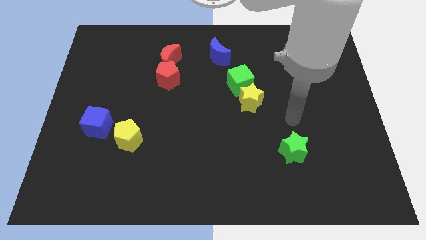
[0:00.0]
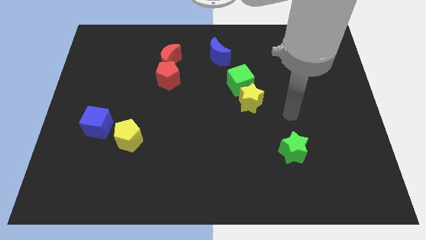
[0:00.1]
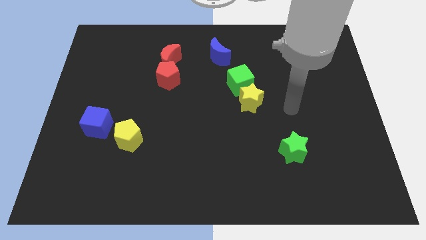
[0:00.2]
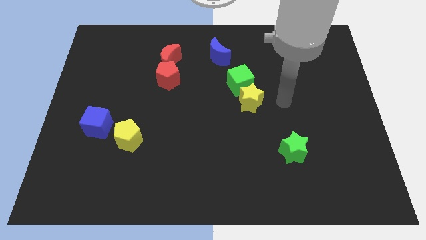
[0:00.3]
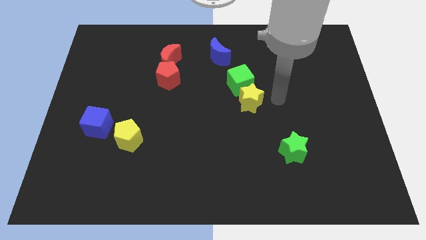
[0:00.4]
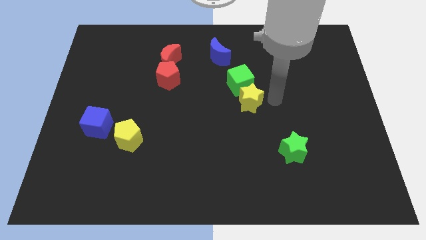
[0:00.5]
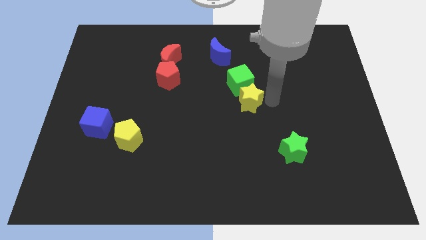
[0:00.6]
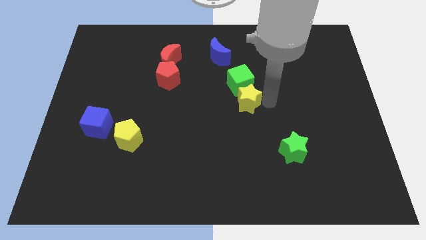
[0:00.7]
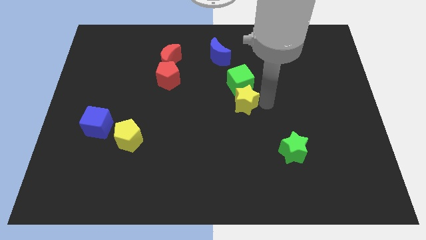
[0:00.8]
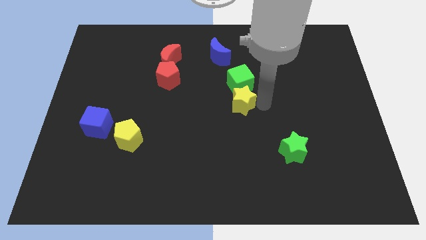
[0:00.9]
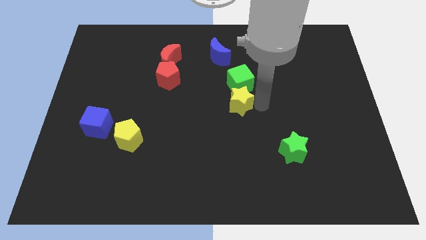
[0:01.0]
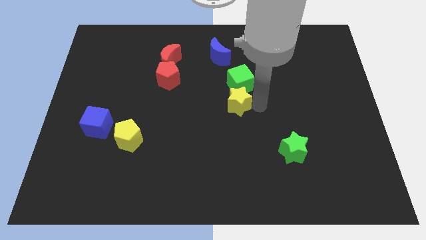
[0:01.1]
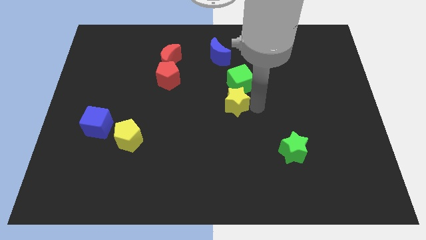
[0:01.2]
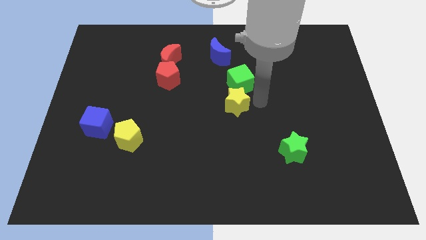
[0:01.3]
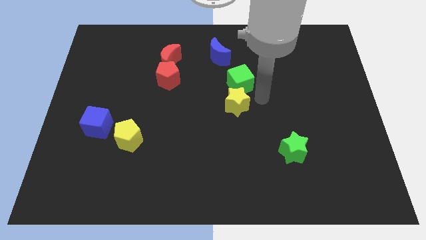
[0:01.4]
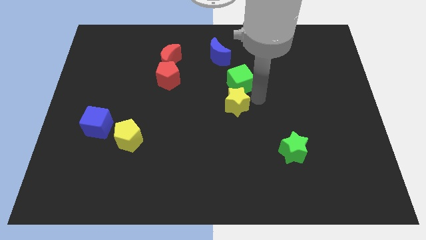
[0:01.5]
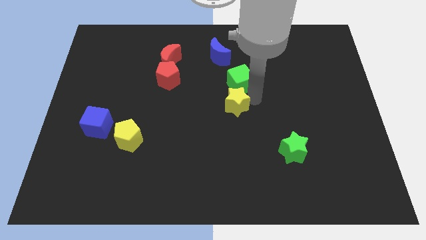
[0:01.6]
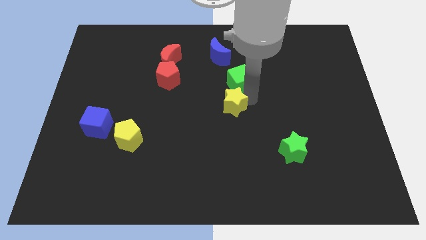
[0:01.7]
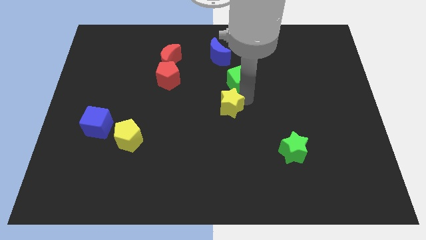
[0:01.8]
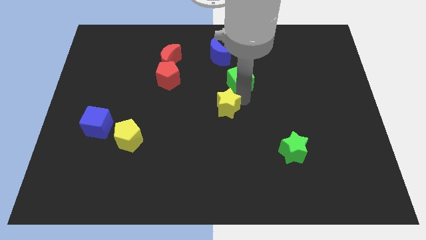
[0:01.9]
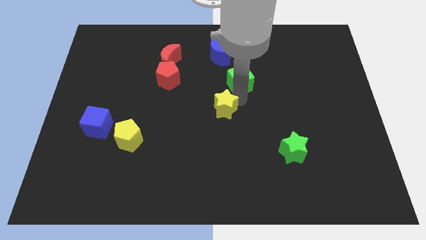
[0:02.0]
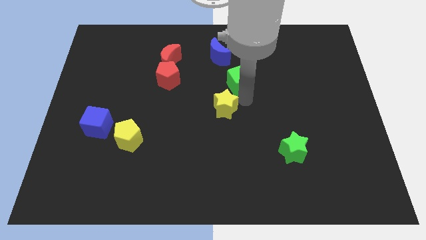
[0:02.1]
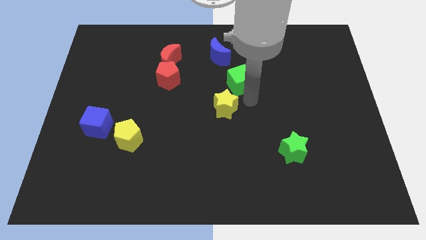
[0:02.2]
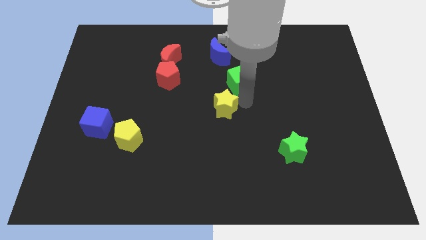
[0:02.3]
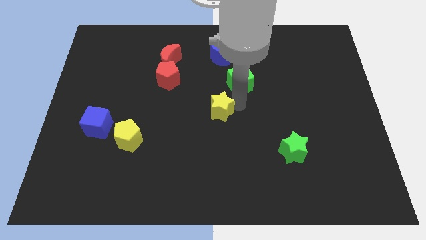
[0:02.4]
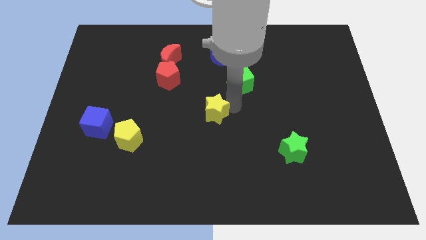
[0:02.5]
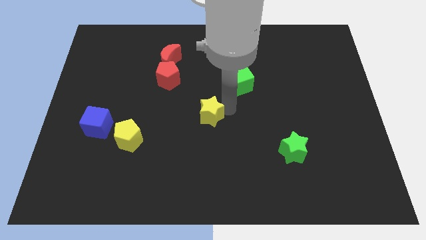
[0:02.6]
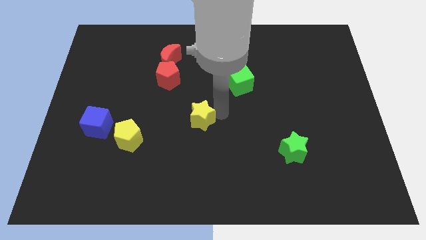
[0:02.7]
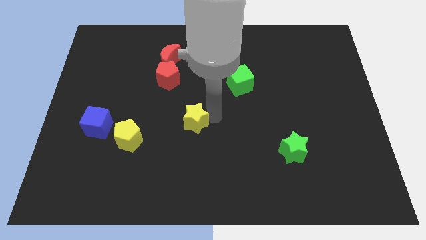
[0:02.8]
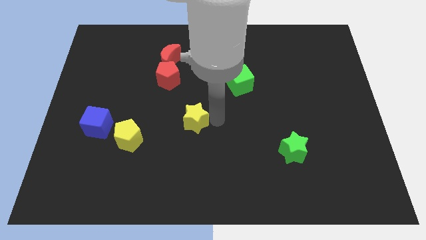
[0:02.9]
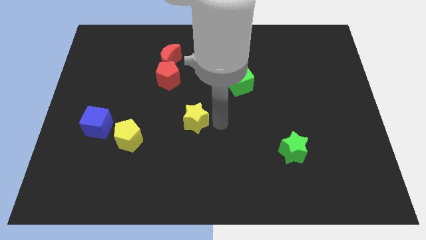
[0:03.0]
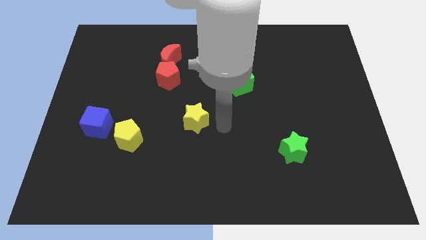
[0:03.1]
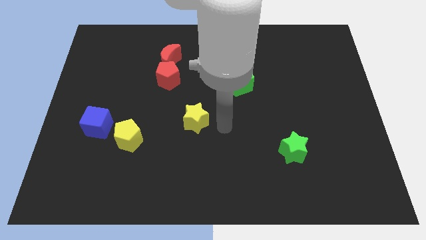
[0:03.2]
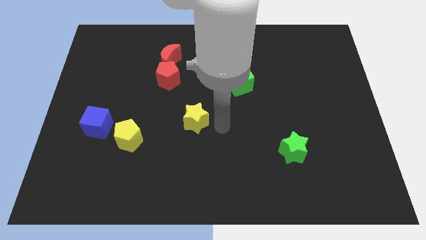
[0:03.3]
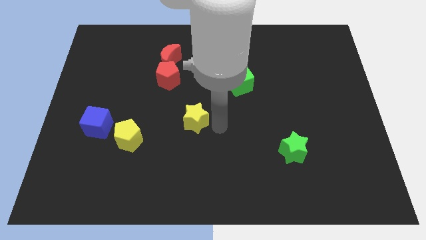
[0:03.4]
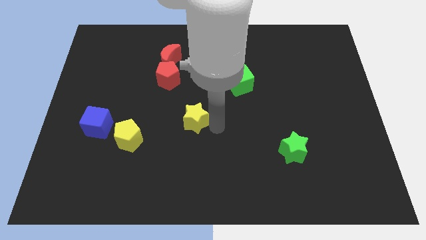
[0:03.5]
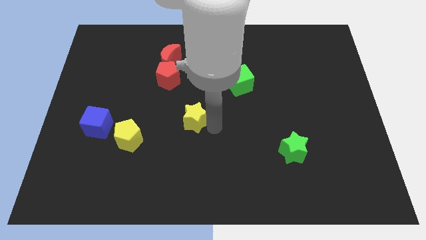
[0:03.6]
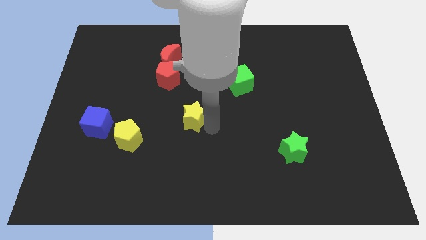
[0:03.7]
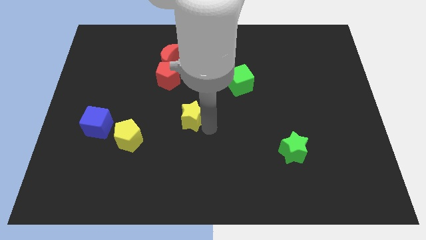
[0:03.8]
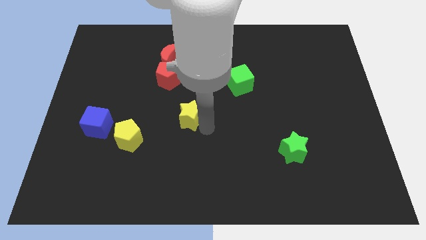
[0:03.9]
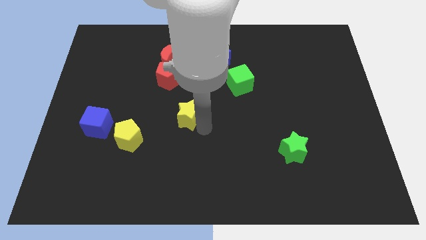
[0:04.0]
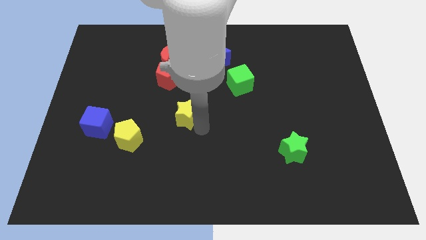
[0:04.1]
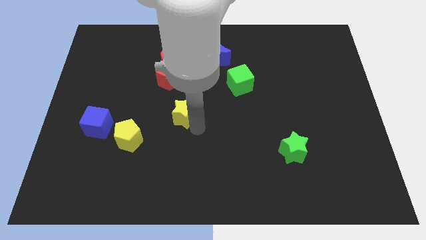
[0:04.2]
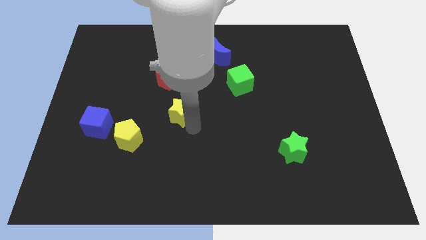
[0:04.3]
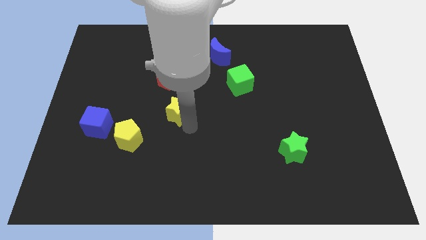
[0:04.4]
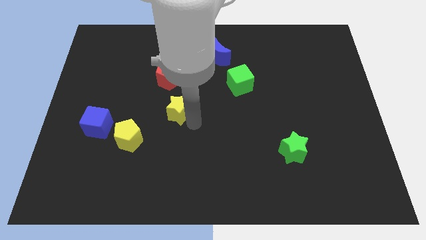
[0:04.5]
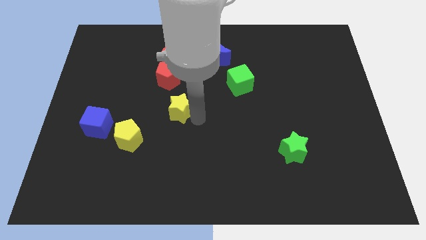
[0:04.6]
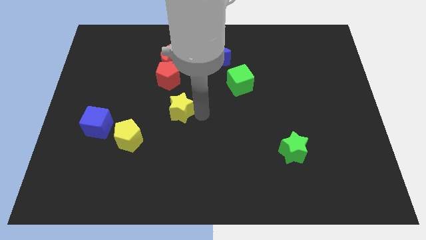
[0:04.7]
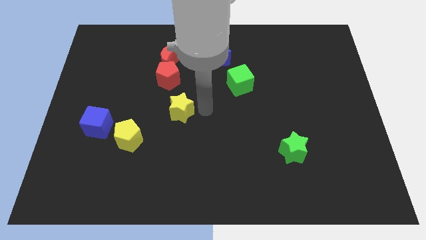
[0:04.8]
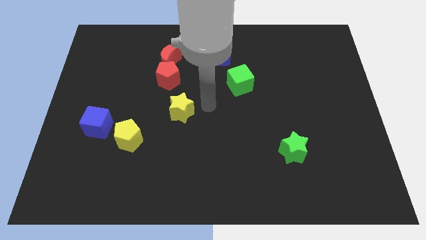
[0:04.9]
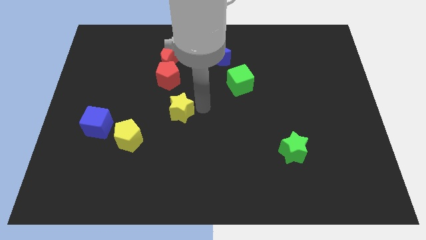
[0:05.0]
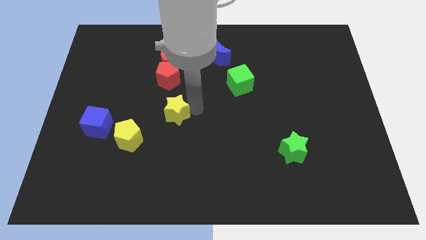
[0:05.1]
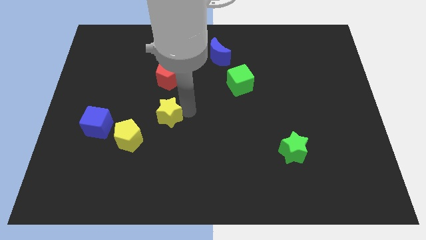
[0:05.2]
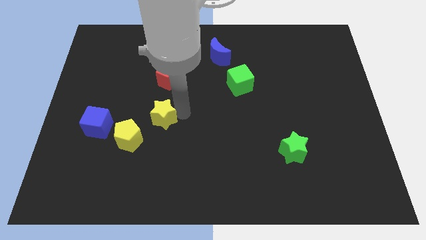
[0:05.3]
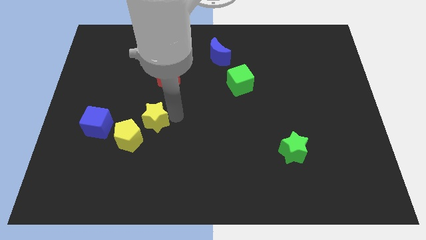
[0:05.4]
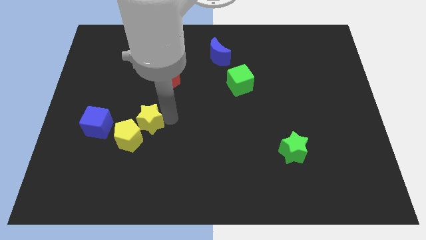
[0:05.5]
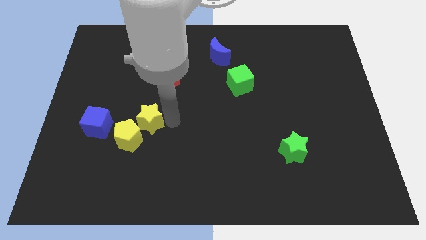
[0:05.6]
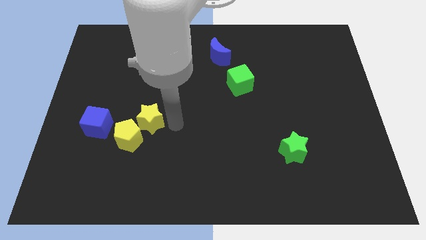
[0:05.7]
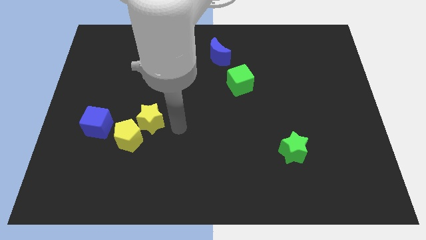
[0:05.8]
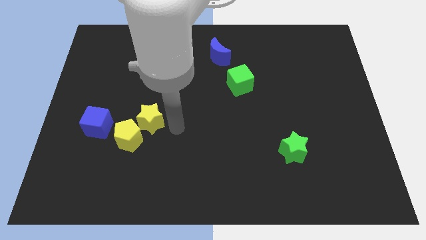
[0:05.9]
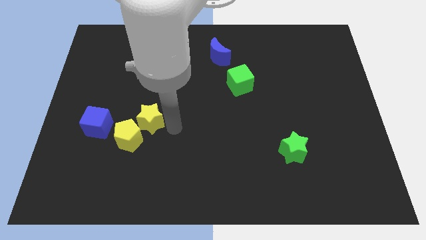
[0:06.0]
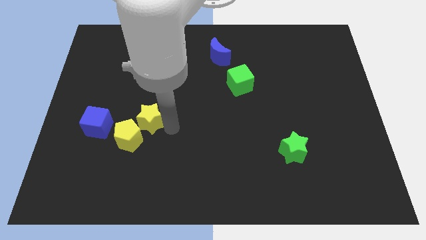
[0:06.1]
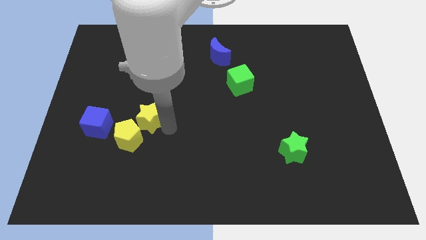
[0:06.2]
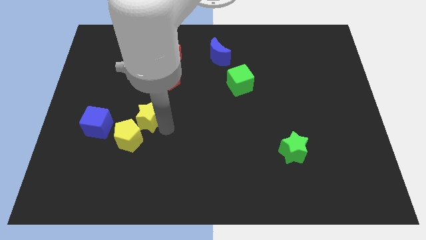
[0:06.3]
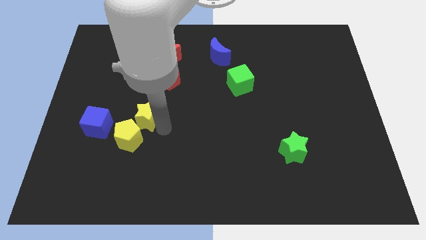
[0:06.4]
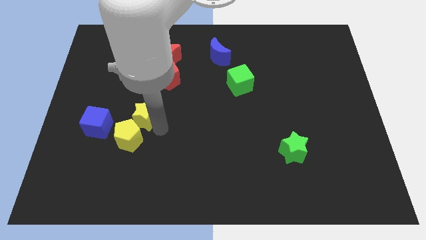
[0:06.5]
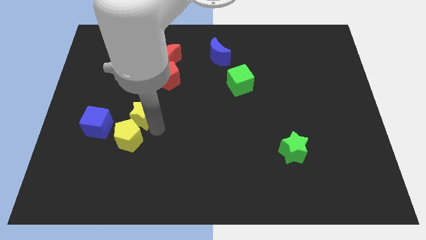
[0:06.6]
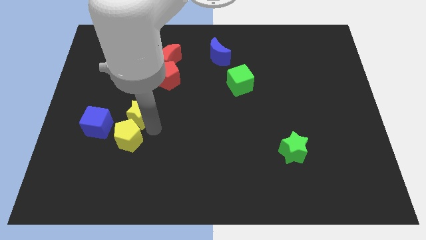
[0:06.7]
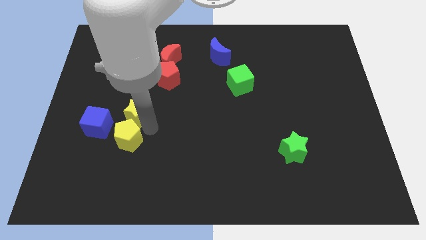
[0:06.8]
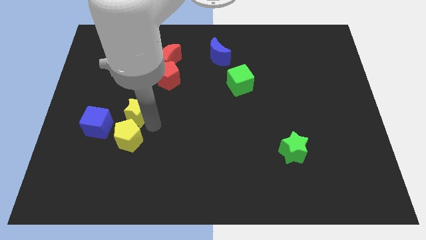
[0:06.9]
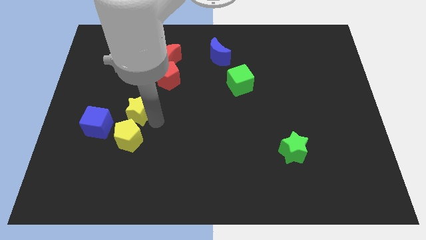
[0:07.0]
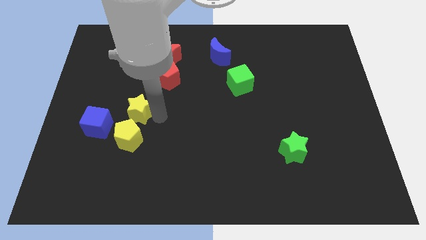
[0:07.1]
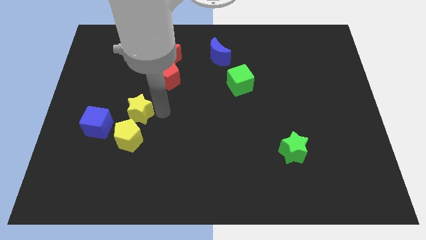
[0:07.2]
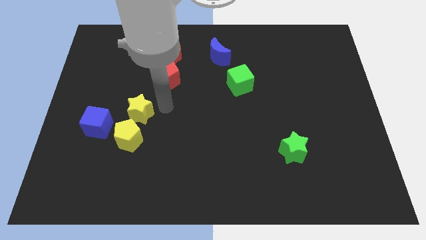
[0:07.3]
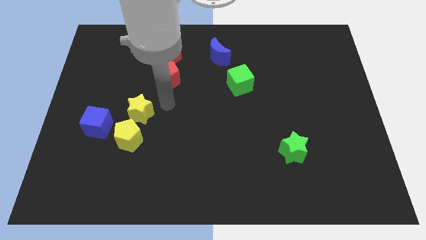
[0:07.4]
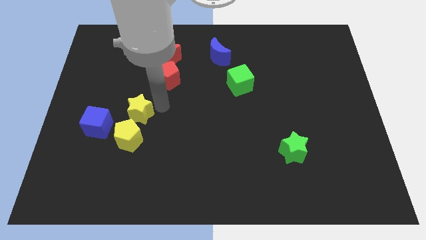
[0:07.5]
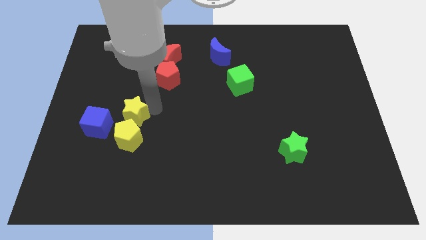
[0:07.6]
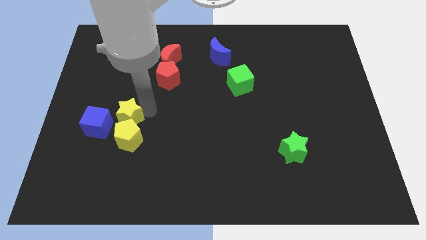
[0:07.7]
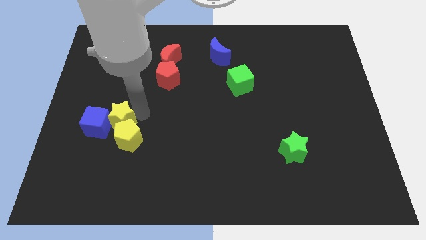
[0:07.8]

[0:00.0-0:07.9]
put the yellow star next to the blue cube
